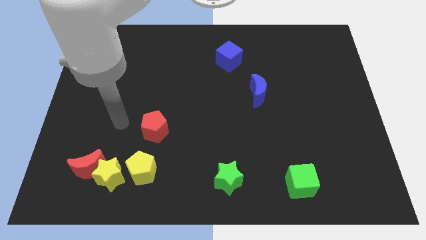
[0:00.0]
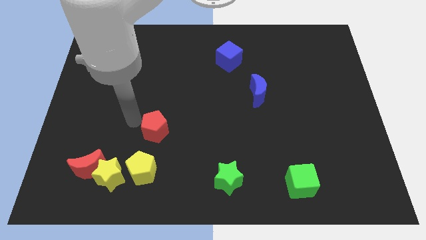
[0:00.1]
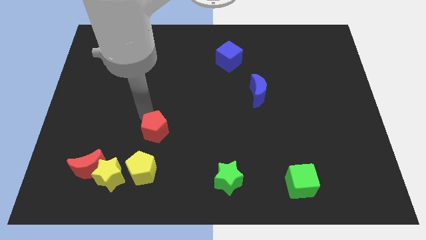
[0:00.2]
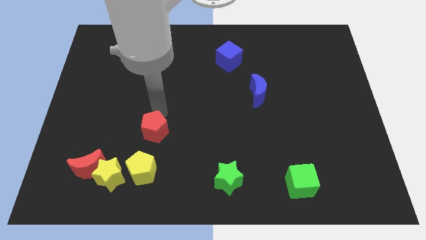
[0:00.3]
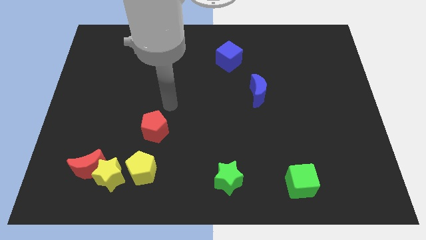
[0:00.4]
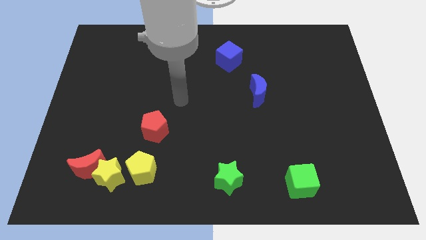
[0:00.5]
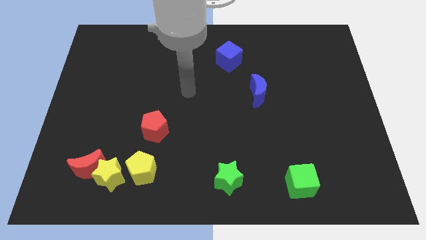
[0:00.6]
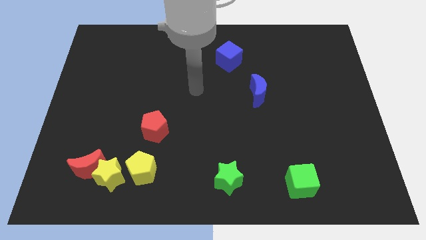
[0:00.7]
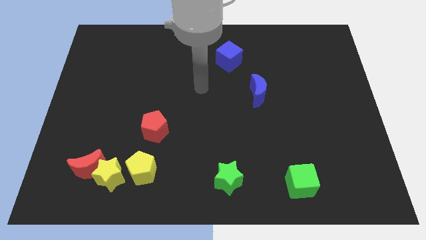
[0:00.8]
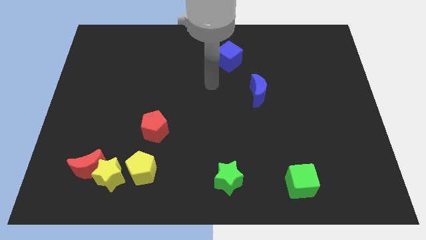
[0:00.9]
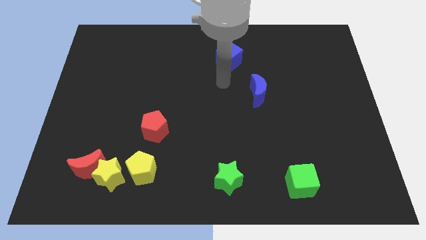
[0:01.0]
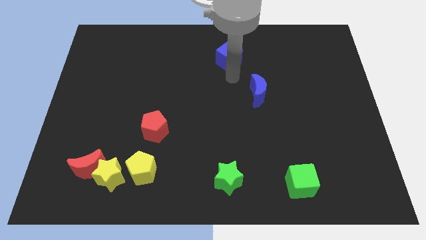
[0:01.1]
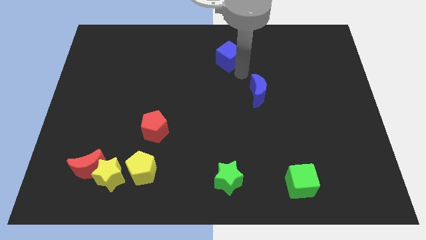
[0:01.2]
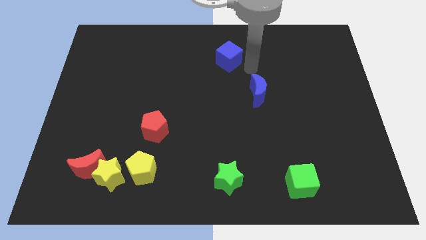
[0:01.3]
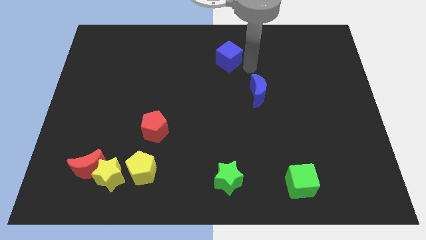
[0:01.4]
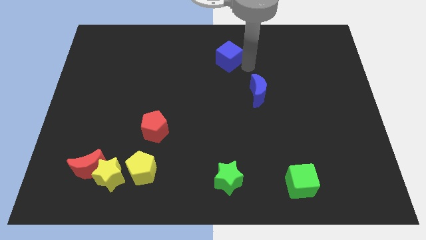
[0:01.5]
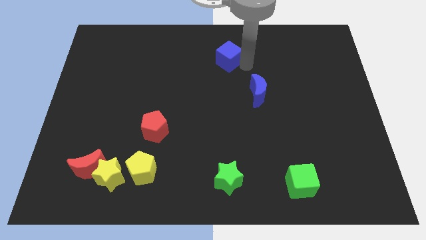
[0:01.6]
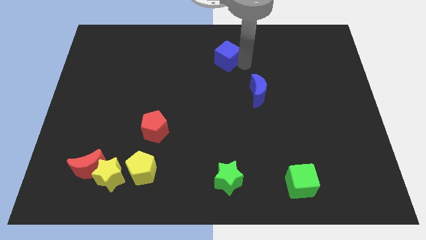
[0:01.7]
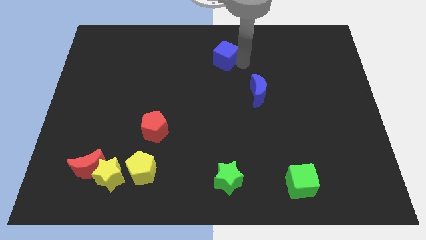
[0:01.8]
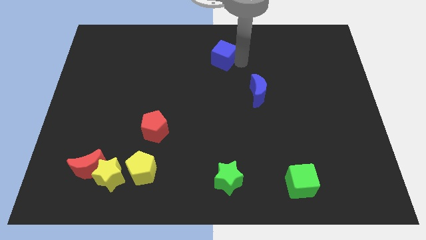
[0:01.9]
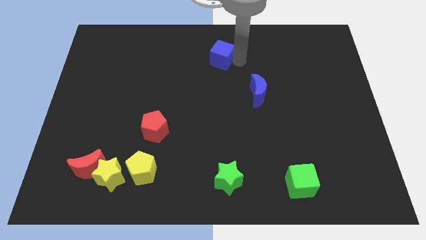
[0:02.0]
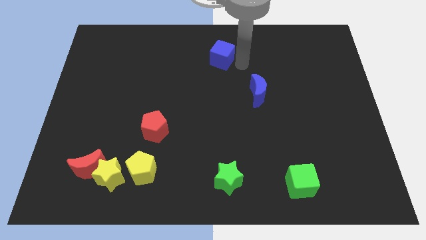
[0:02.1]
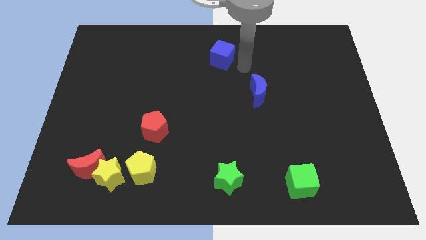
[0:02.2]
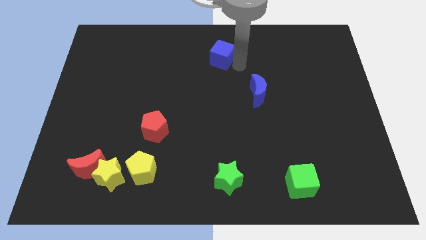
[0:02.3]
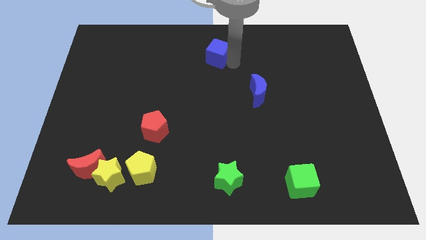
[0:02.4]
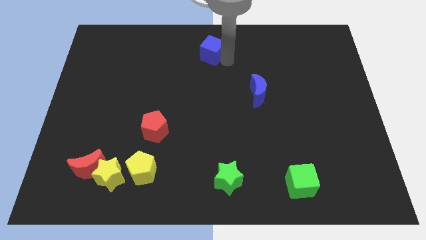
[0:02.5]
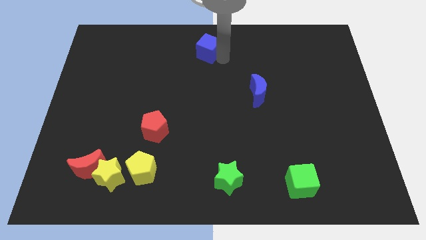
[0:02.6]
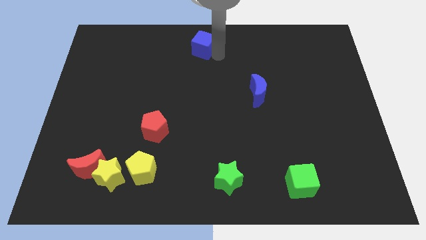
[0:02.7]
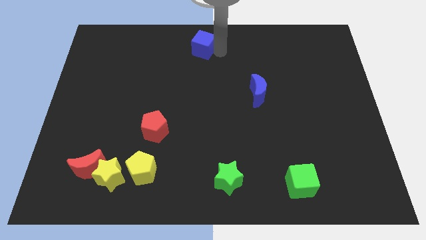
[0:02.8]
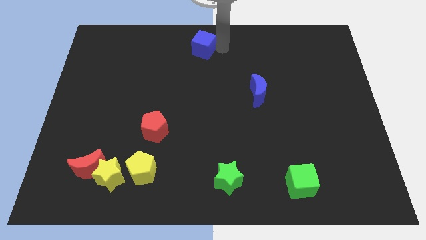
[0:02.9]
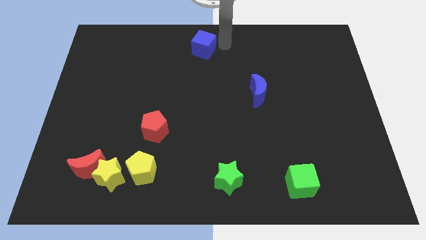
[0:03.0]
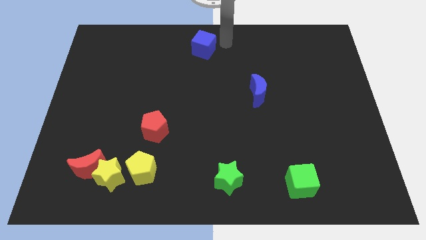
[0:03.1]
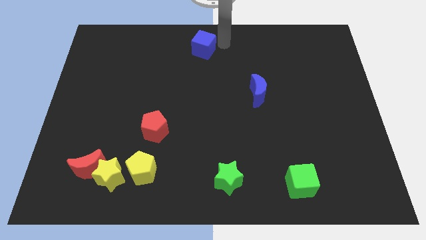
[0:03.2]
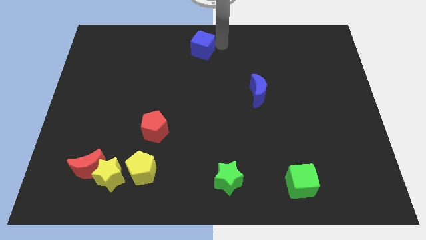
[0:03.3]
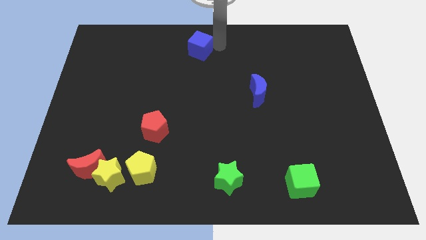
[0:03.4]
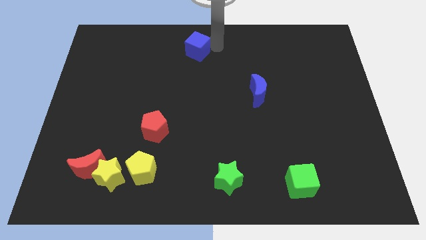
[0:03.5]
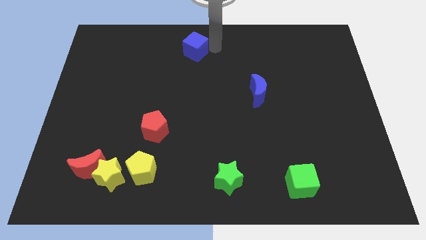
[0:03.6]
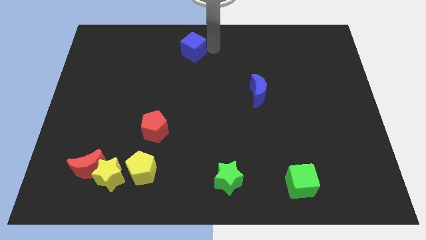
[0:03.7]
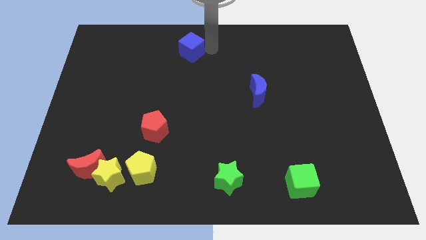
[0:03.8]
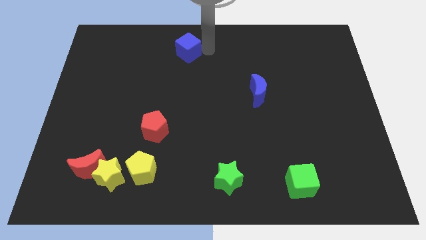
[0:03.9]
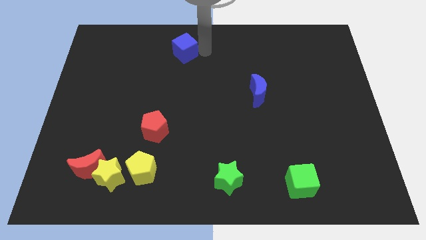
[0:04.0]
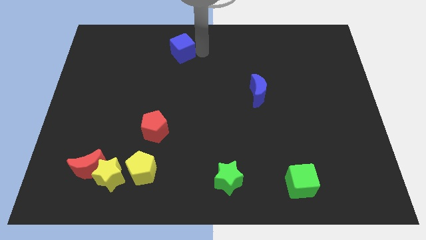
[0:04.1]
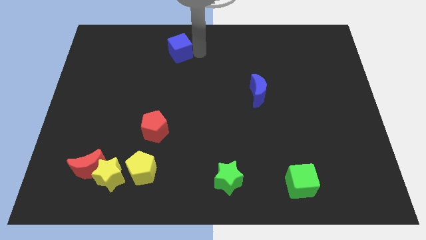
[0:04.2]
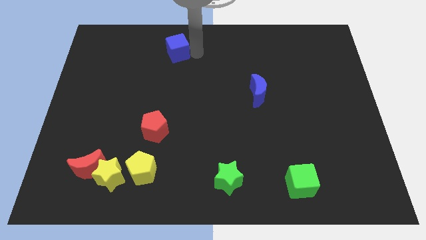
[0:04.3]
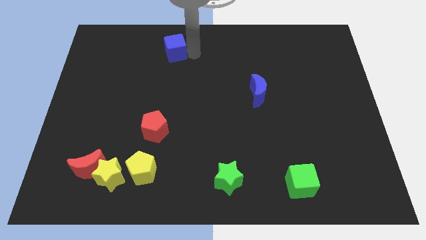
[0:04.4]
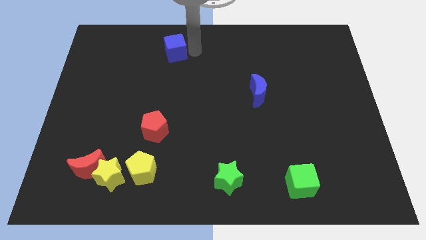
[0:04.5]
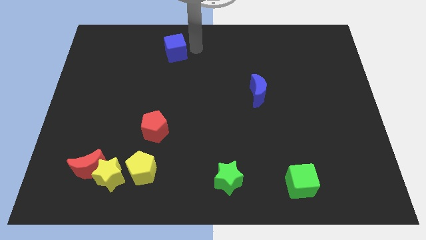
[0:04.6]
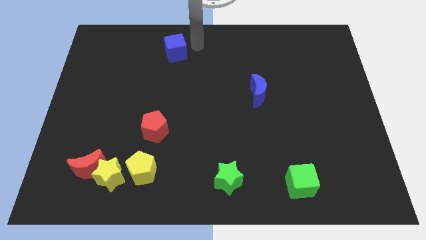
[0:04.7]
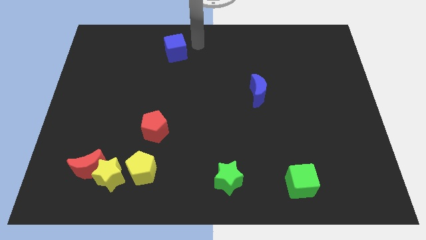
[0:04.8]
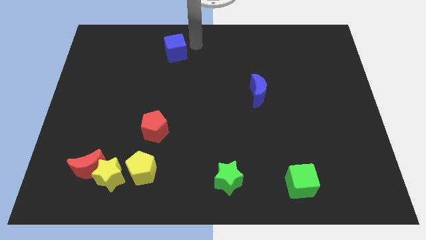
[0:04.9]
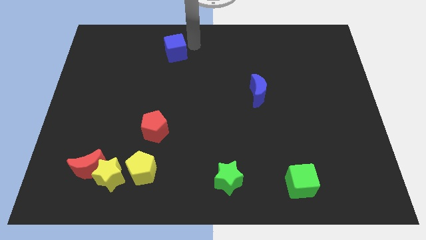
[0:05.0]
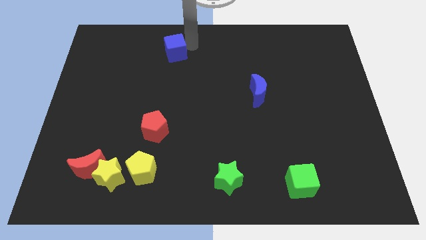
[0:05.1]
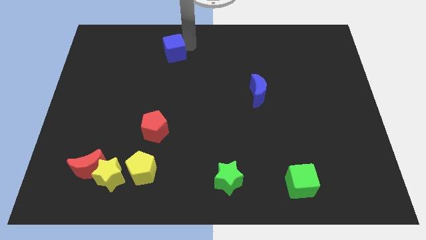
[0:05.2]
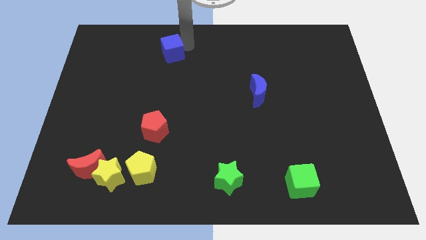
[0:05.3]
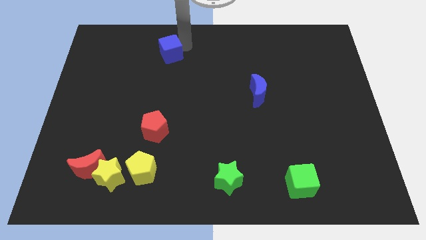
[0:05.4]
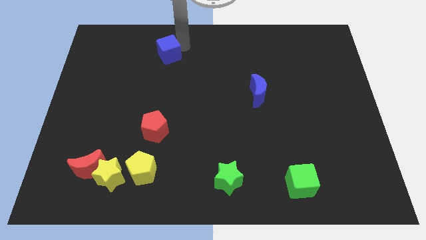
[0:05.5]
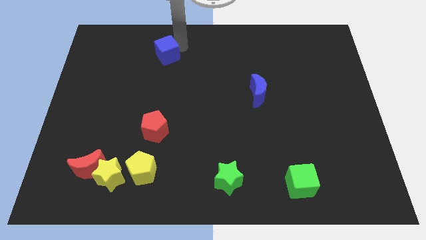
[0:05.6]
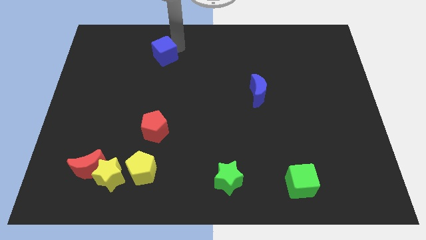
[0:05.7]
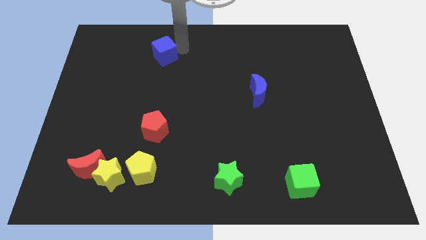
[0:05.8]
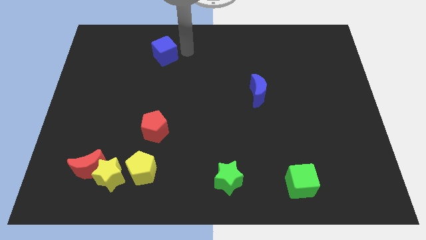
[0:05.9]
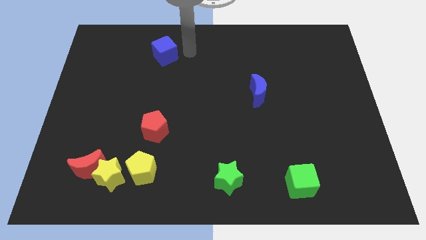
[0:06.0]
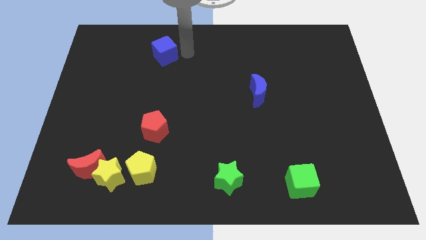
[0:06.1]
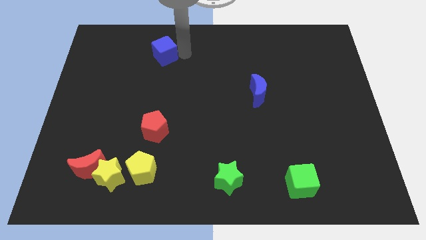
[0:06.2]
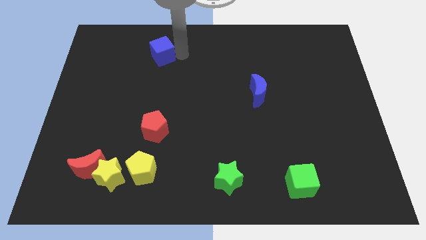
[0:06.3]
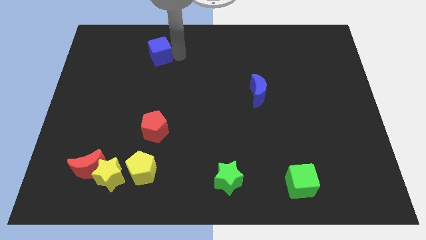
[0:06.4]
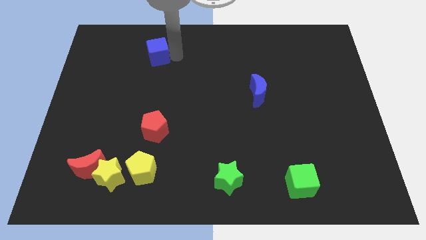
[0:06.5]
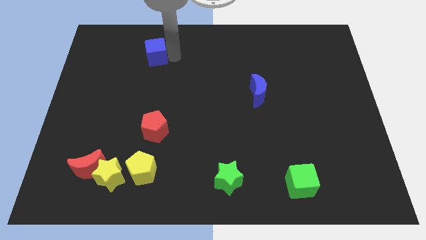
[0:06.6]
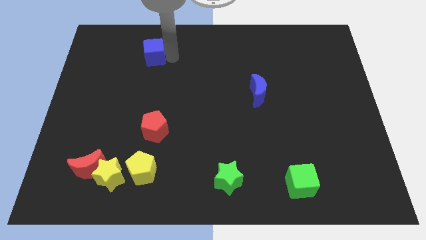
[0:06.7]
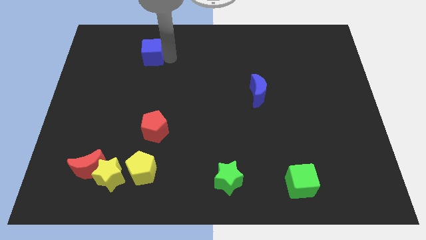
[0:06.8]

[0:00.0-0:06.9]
slide the blue cube to the left

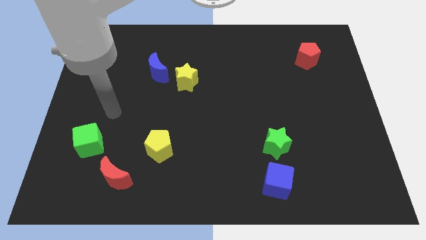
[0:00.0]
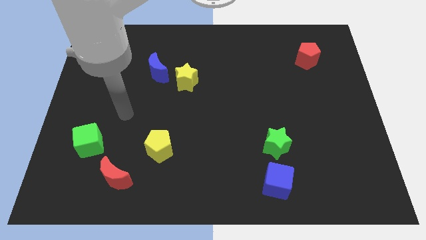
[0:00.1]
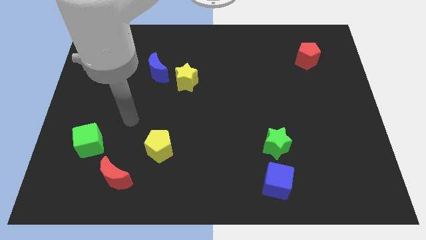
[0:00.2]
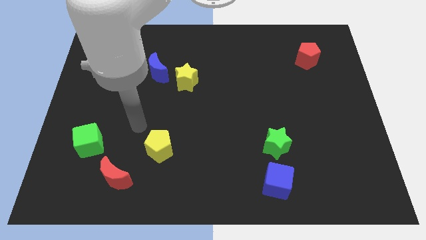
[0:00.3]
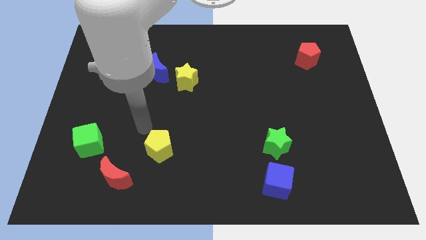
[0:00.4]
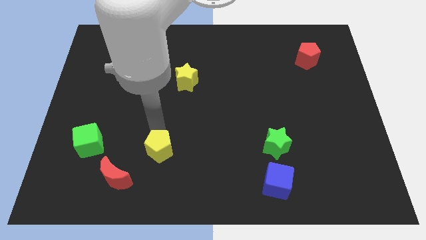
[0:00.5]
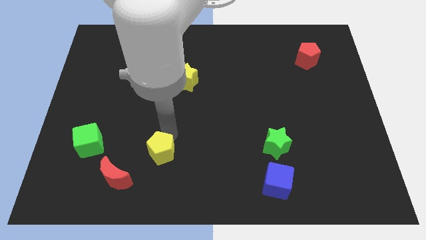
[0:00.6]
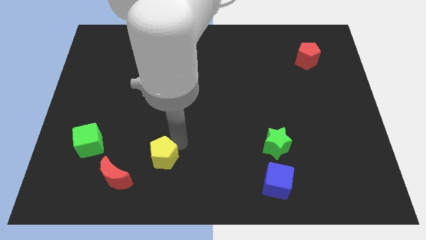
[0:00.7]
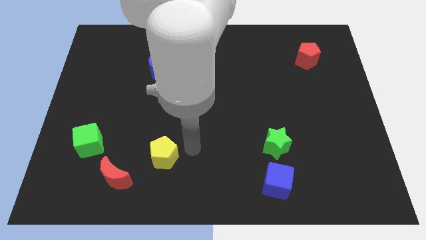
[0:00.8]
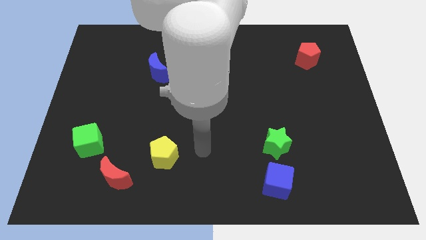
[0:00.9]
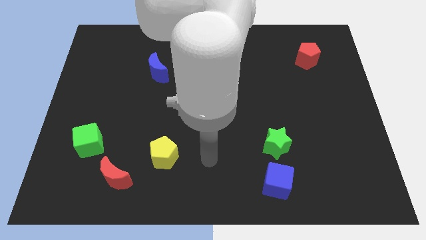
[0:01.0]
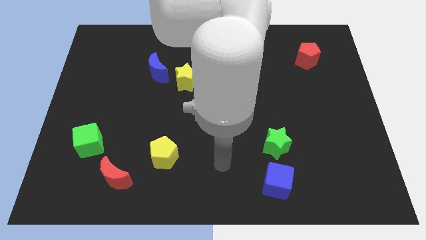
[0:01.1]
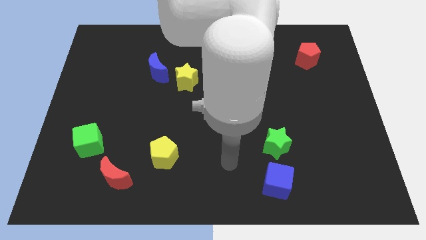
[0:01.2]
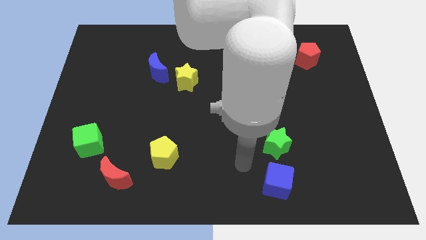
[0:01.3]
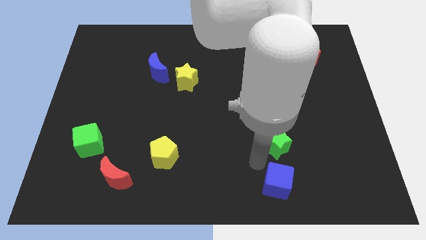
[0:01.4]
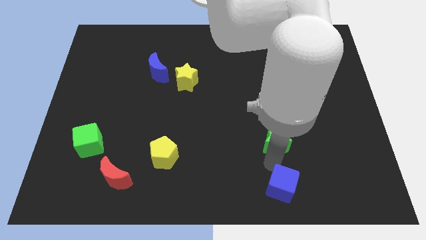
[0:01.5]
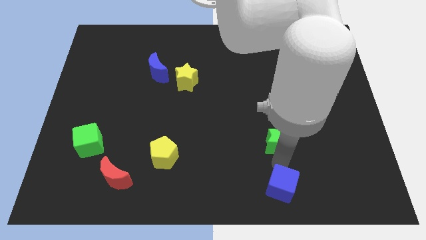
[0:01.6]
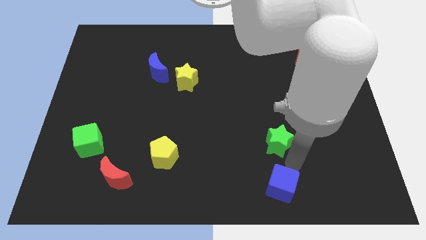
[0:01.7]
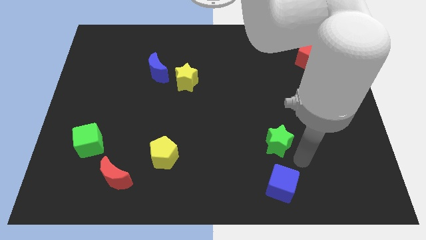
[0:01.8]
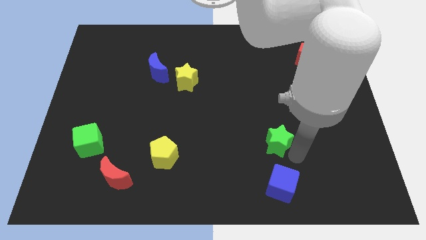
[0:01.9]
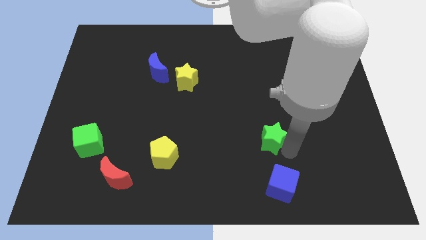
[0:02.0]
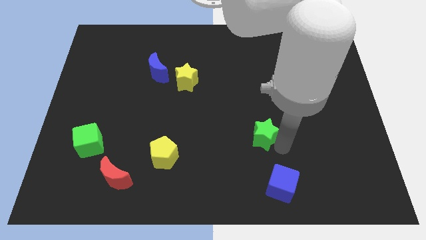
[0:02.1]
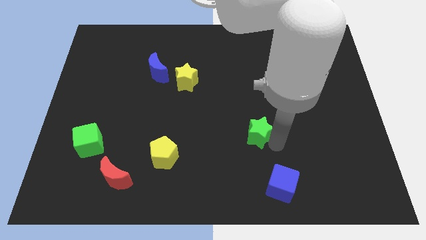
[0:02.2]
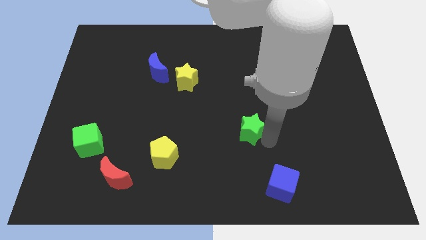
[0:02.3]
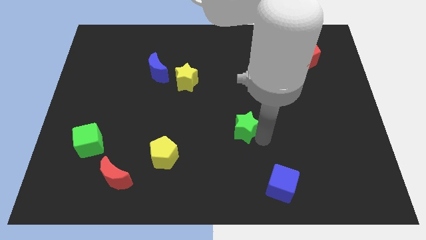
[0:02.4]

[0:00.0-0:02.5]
push the green star a little bit diagonally upwards and left
